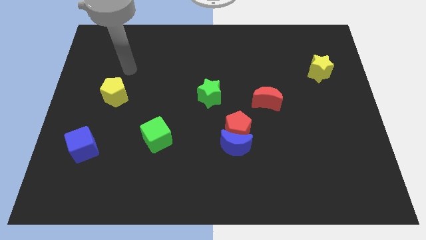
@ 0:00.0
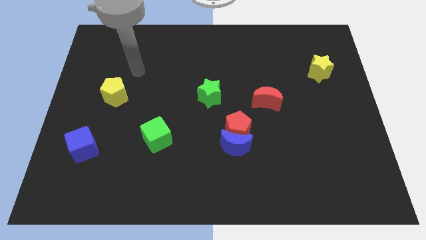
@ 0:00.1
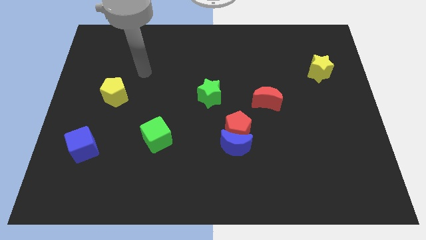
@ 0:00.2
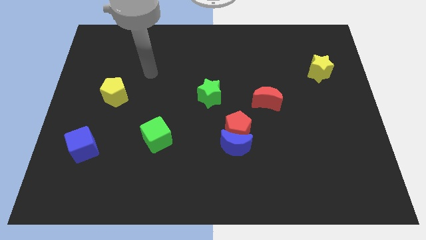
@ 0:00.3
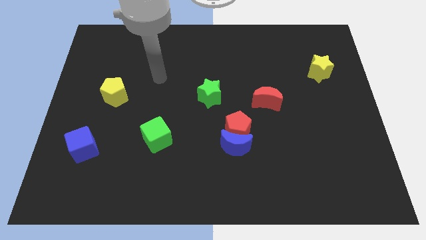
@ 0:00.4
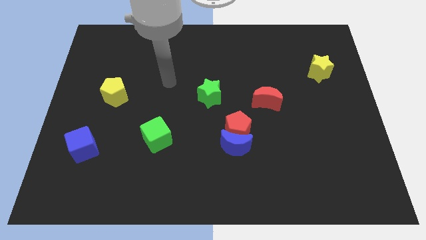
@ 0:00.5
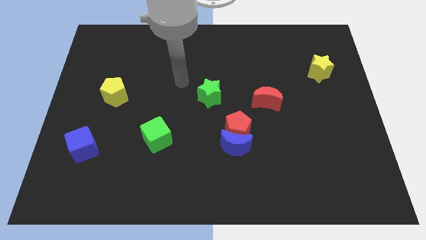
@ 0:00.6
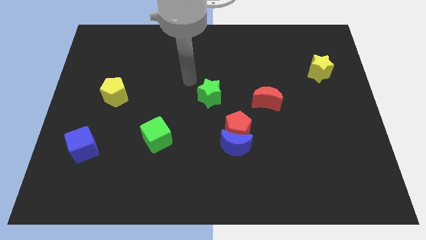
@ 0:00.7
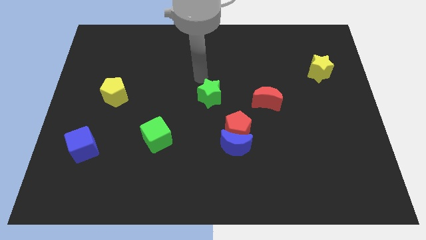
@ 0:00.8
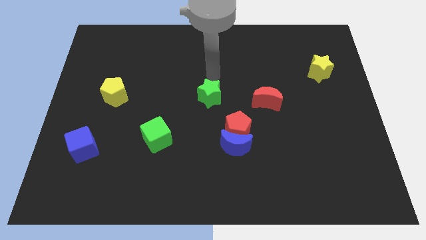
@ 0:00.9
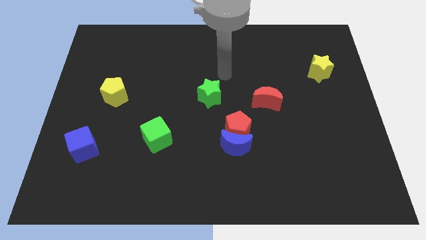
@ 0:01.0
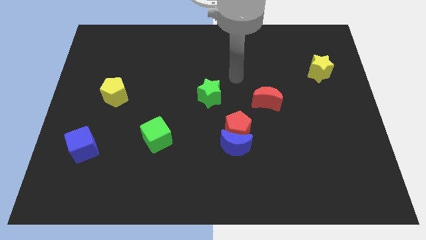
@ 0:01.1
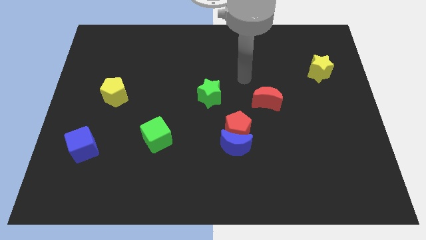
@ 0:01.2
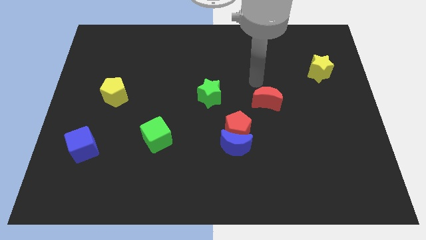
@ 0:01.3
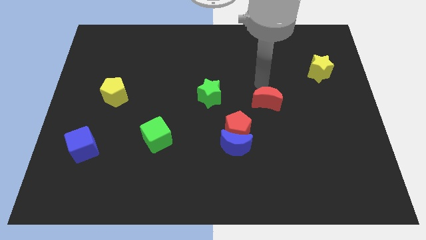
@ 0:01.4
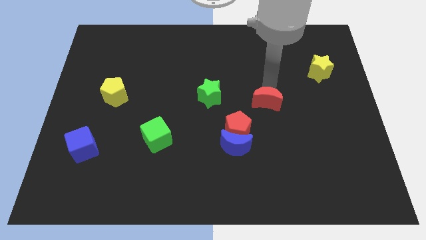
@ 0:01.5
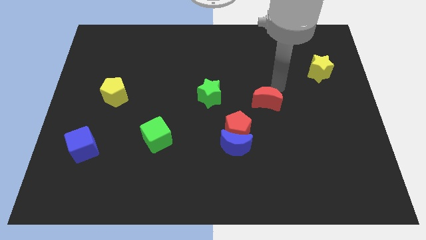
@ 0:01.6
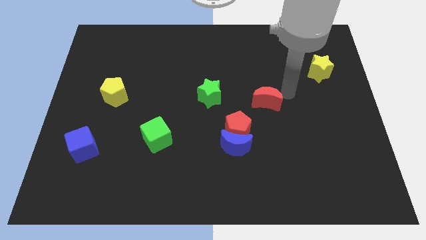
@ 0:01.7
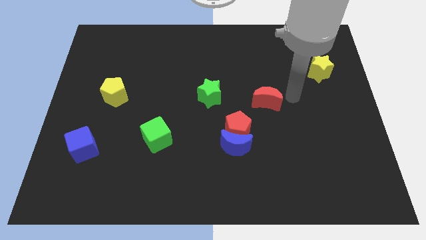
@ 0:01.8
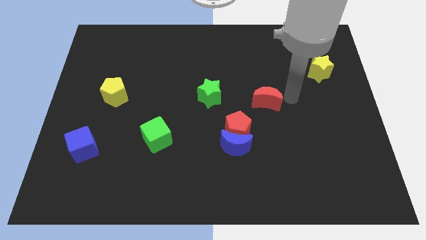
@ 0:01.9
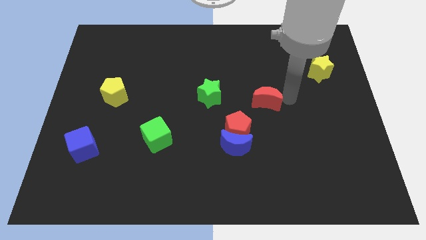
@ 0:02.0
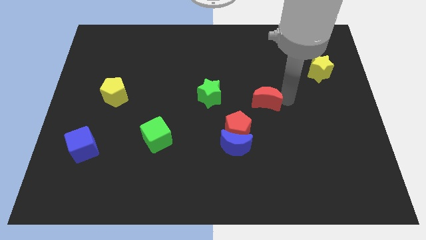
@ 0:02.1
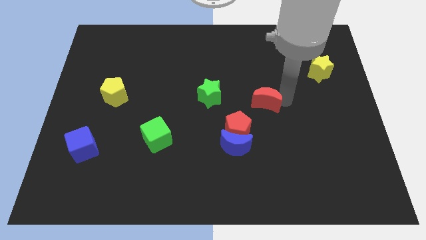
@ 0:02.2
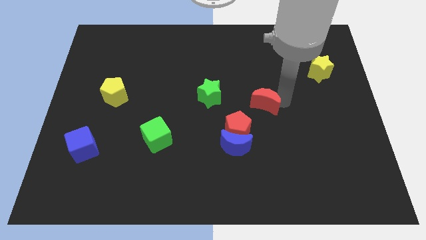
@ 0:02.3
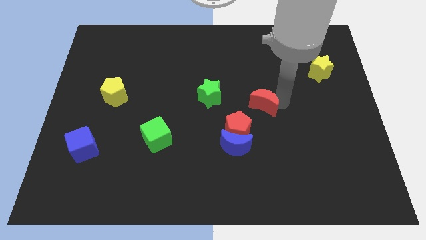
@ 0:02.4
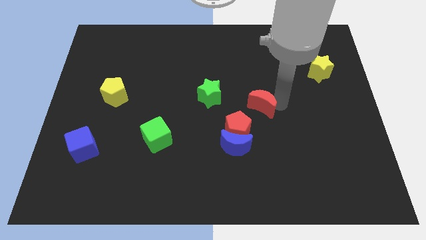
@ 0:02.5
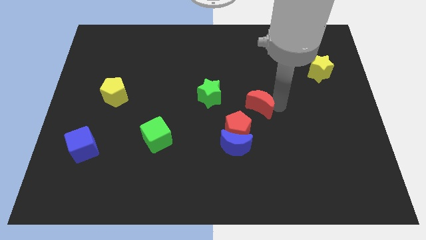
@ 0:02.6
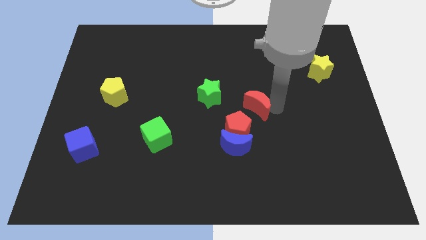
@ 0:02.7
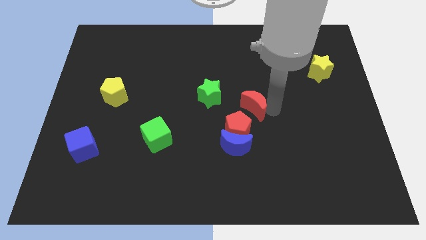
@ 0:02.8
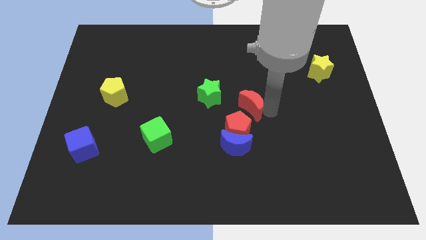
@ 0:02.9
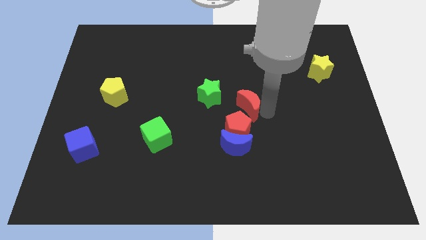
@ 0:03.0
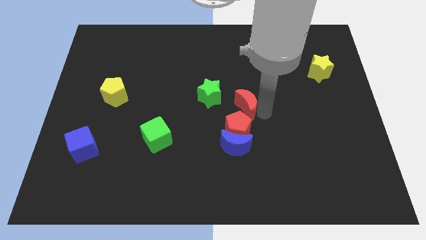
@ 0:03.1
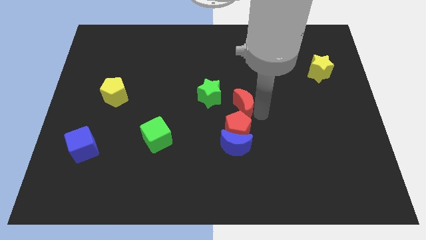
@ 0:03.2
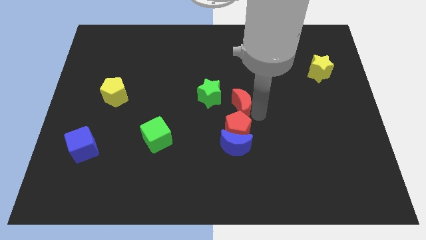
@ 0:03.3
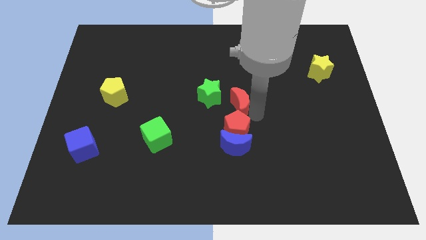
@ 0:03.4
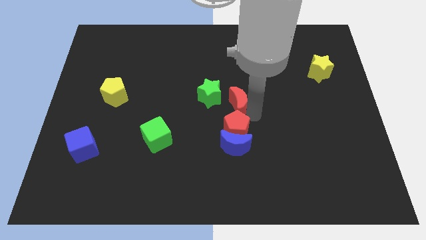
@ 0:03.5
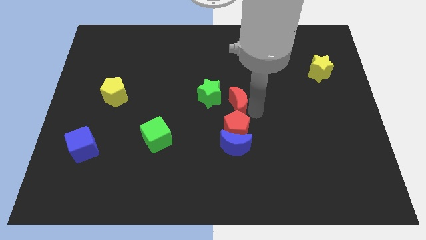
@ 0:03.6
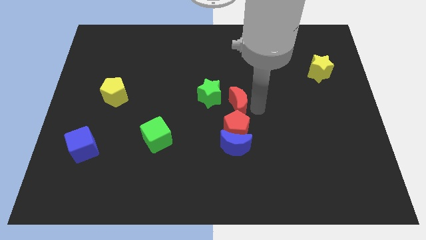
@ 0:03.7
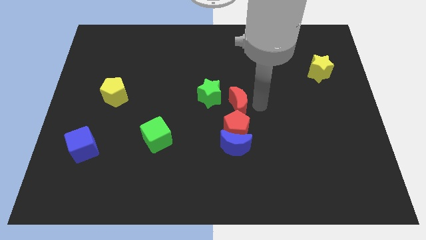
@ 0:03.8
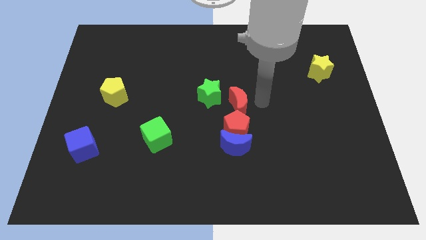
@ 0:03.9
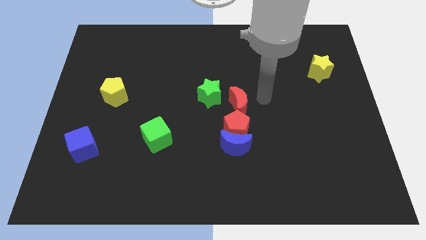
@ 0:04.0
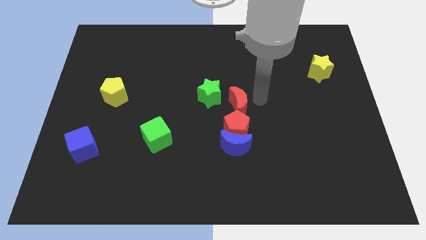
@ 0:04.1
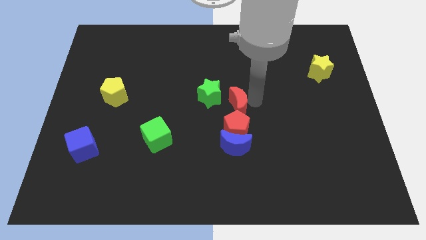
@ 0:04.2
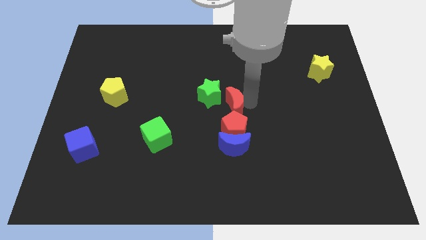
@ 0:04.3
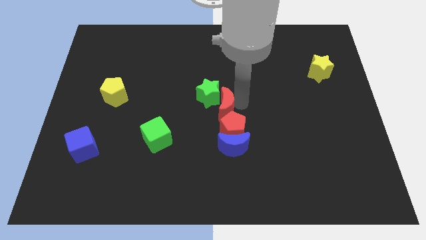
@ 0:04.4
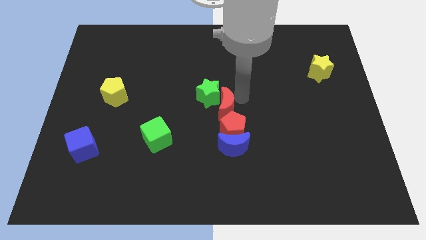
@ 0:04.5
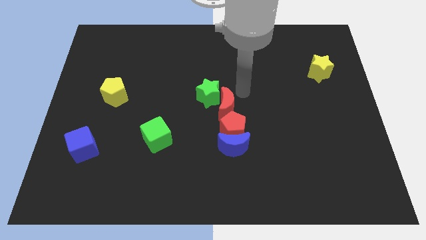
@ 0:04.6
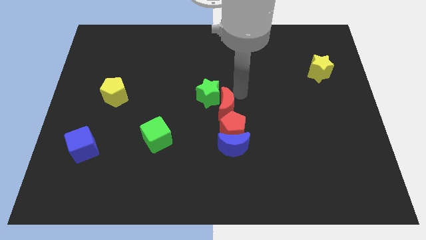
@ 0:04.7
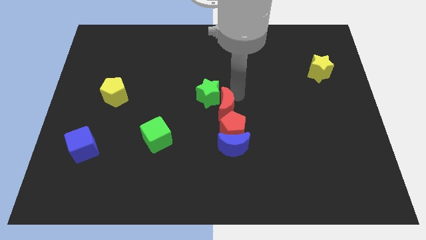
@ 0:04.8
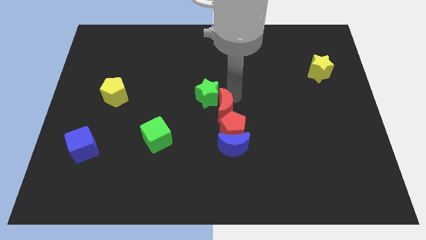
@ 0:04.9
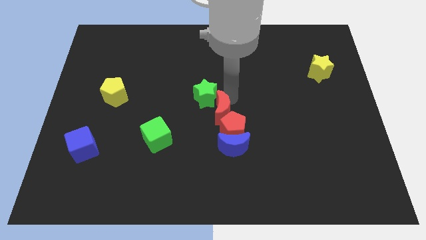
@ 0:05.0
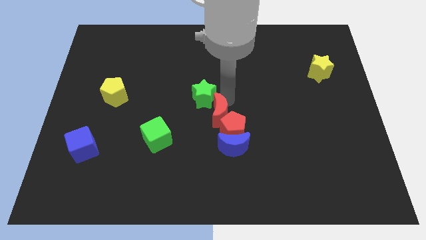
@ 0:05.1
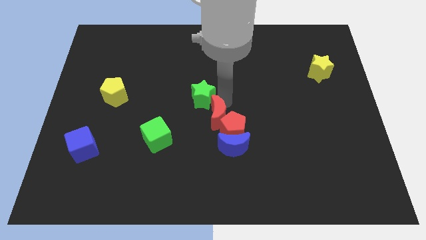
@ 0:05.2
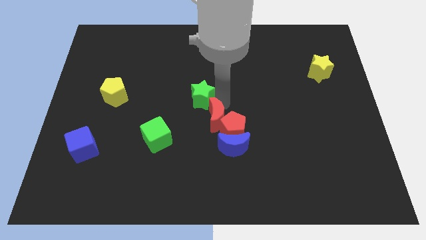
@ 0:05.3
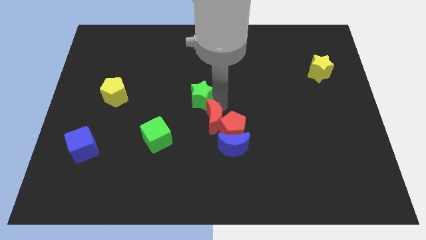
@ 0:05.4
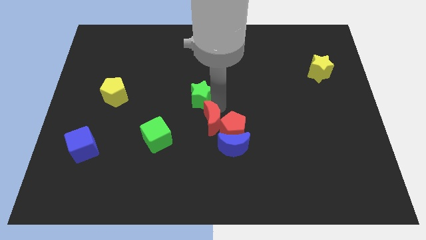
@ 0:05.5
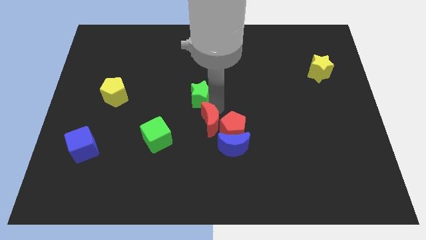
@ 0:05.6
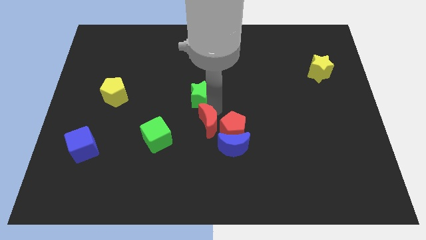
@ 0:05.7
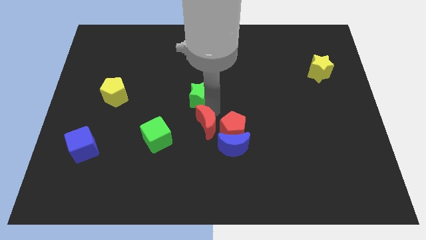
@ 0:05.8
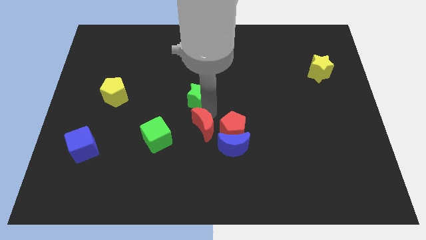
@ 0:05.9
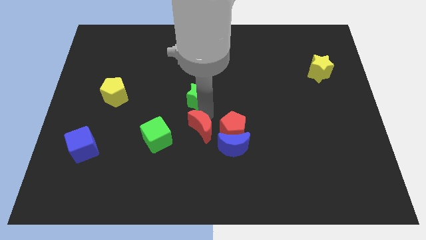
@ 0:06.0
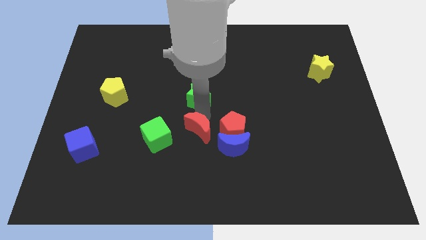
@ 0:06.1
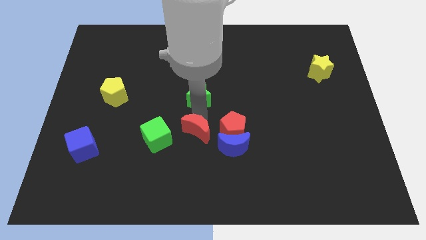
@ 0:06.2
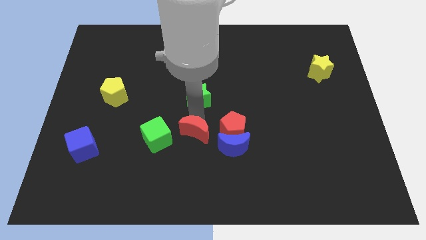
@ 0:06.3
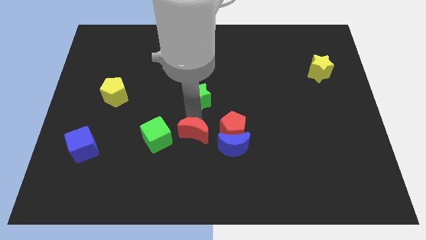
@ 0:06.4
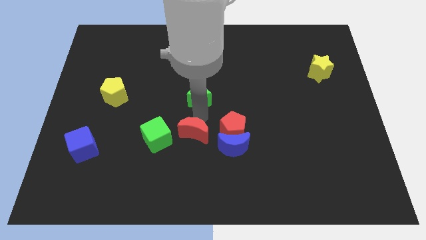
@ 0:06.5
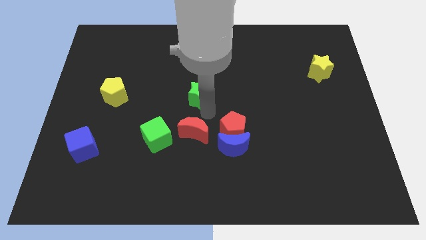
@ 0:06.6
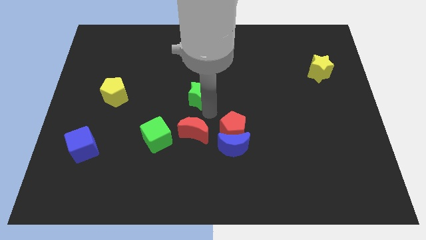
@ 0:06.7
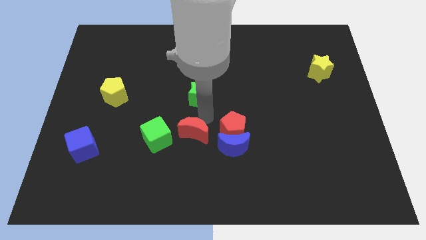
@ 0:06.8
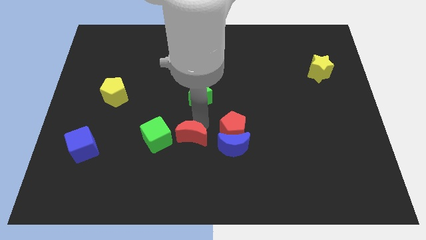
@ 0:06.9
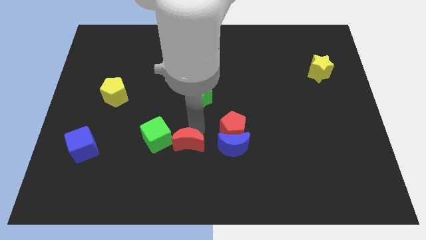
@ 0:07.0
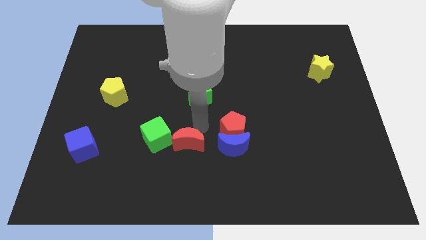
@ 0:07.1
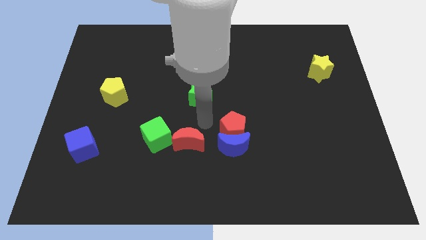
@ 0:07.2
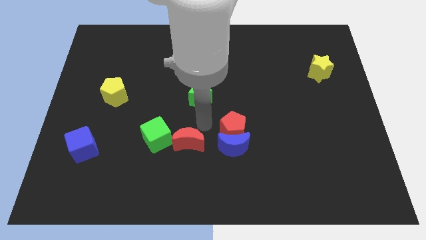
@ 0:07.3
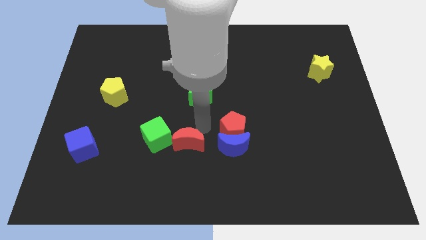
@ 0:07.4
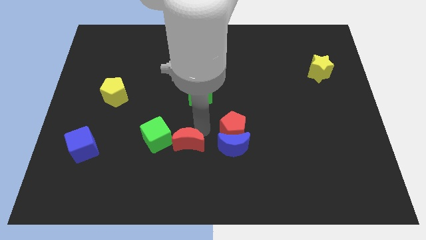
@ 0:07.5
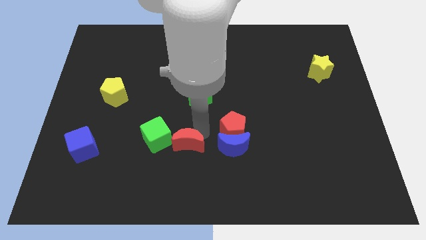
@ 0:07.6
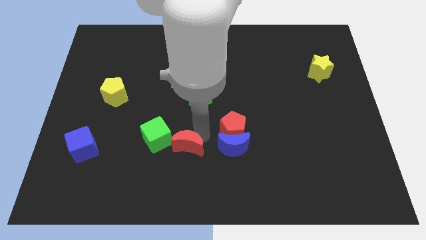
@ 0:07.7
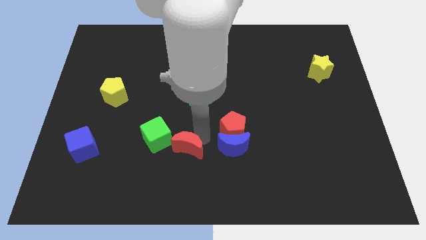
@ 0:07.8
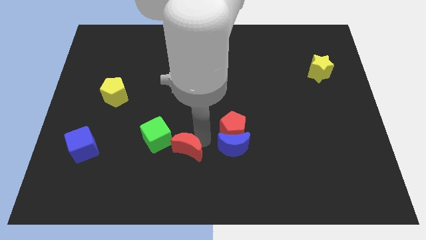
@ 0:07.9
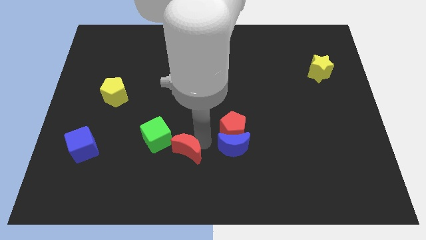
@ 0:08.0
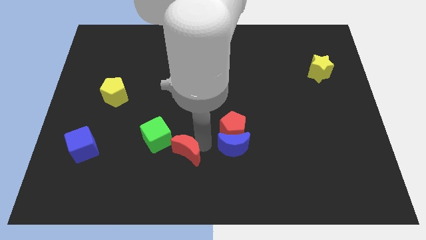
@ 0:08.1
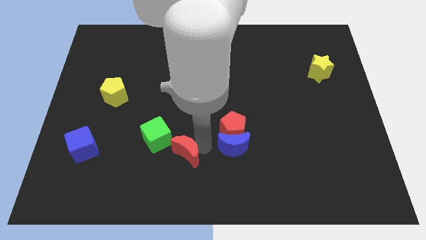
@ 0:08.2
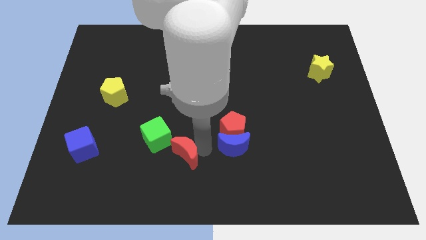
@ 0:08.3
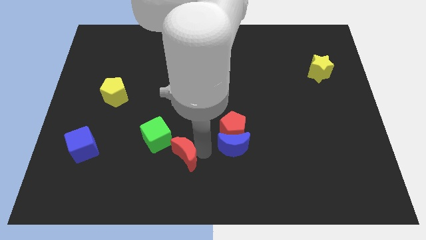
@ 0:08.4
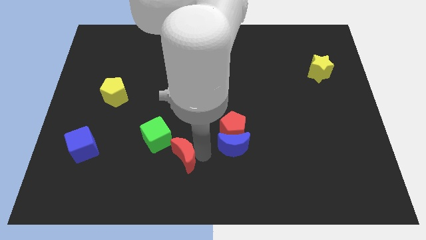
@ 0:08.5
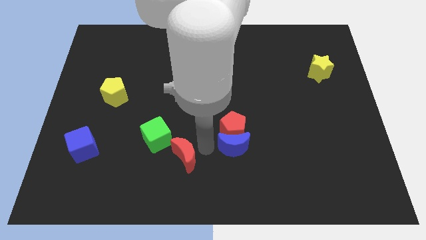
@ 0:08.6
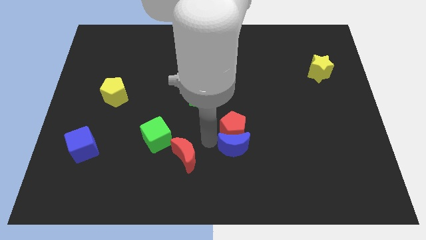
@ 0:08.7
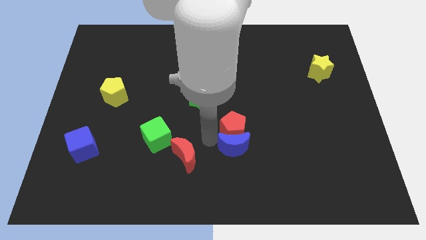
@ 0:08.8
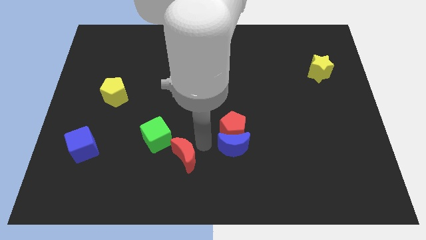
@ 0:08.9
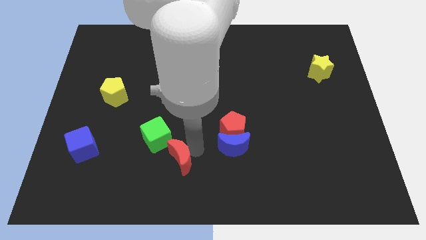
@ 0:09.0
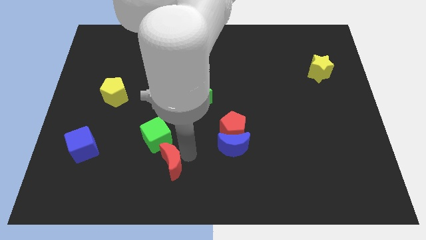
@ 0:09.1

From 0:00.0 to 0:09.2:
move the red moon to the bottom of the green cube
